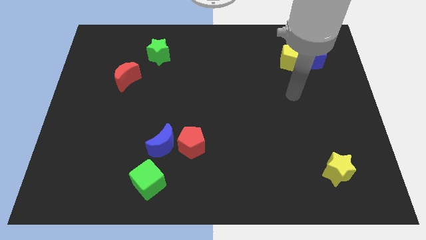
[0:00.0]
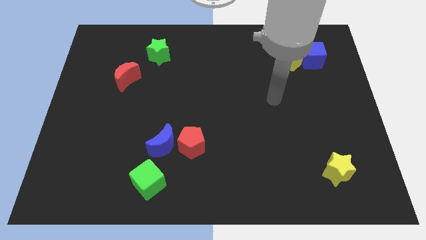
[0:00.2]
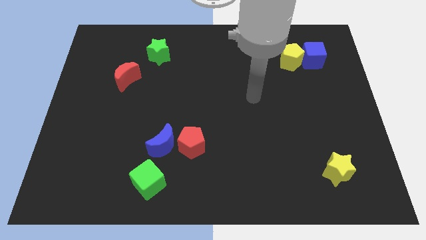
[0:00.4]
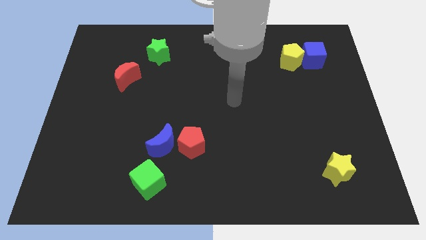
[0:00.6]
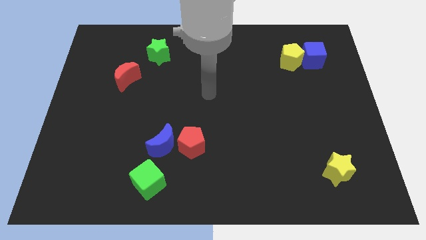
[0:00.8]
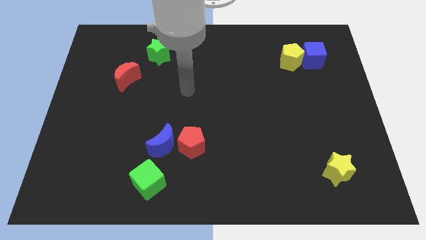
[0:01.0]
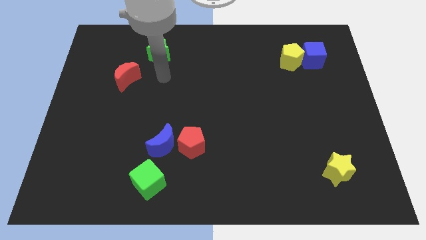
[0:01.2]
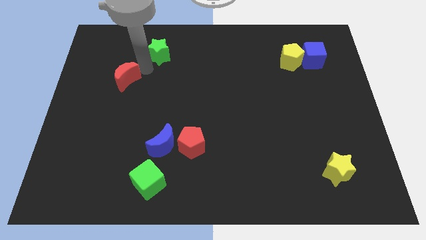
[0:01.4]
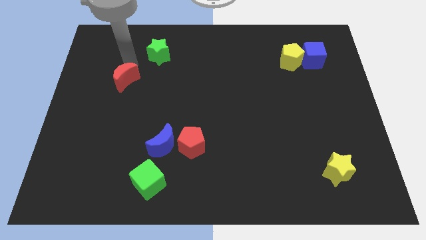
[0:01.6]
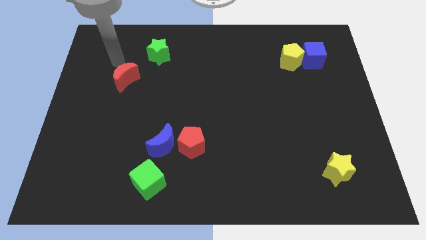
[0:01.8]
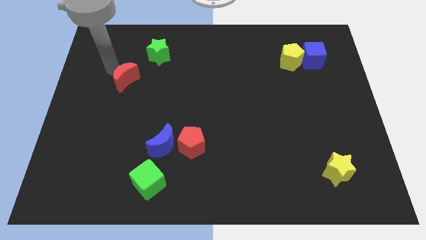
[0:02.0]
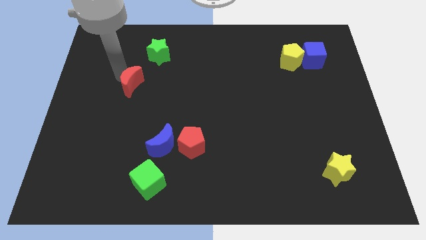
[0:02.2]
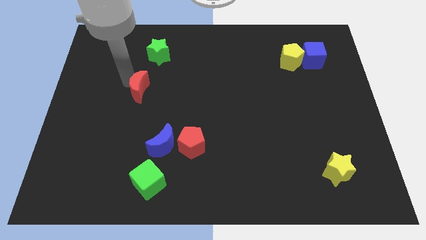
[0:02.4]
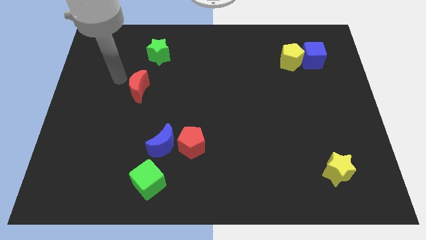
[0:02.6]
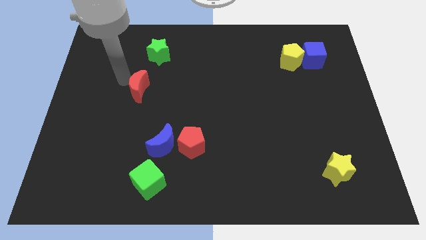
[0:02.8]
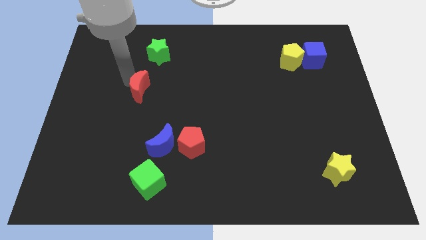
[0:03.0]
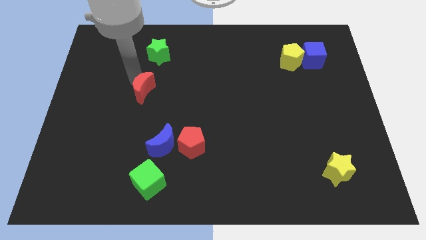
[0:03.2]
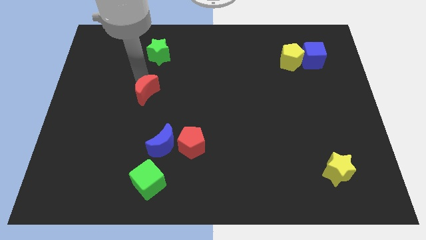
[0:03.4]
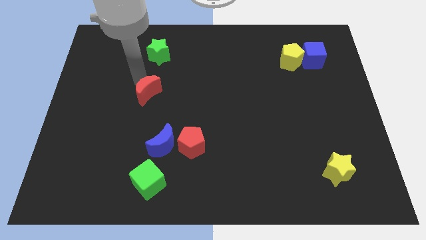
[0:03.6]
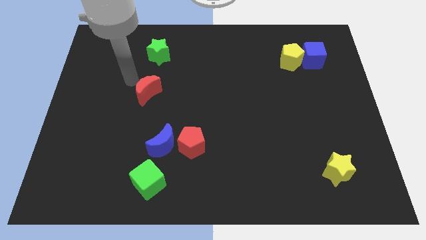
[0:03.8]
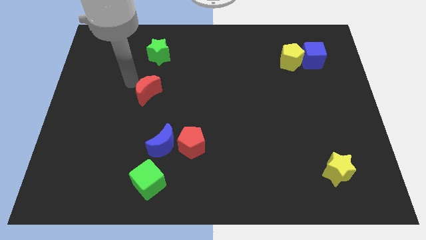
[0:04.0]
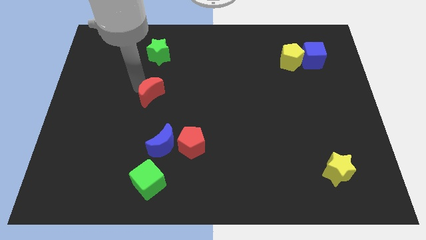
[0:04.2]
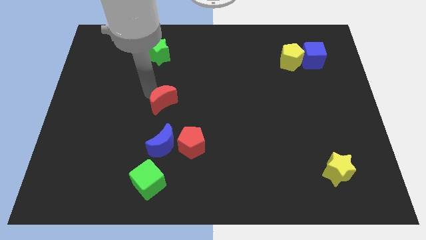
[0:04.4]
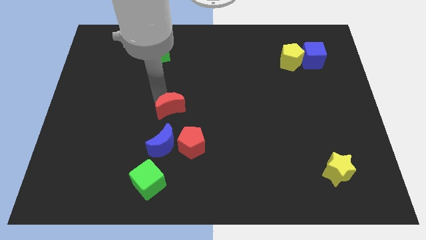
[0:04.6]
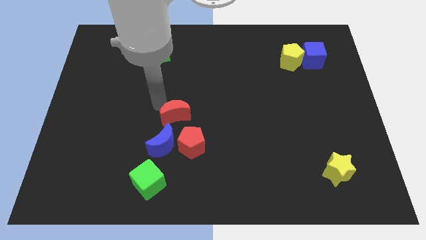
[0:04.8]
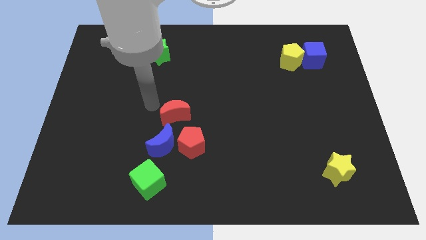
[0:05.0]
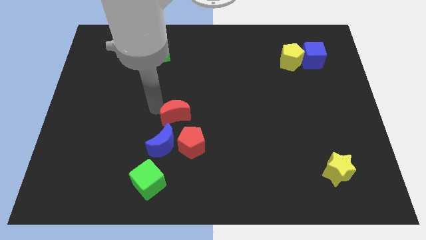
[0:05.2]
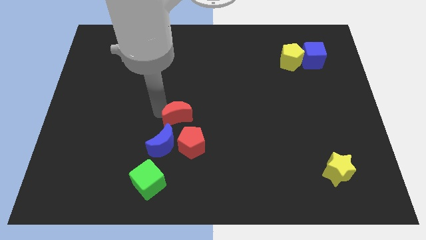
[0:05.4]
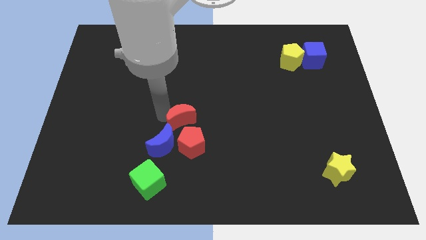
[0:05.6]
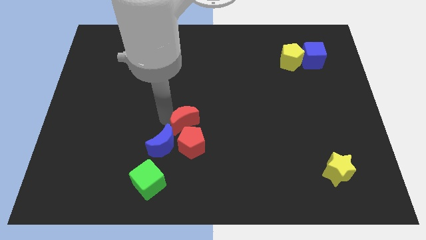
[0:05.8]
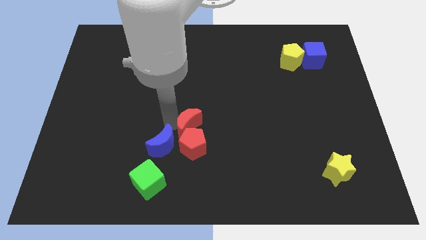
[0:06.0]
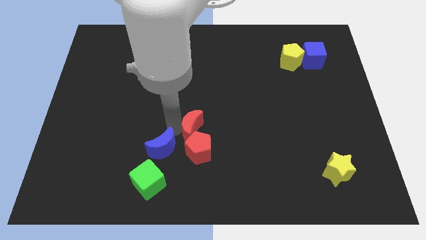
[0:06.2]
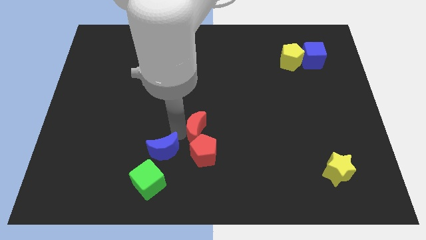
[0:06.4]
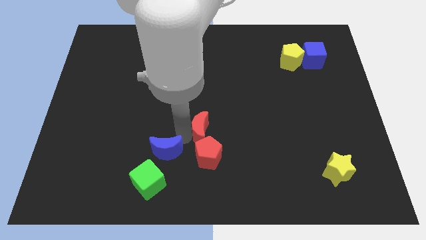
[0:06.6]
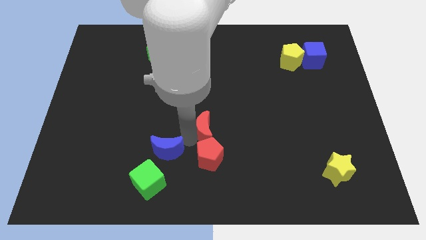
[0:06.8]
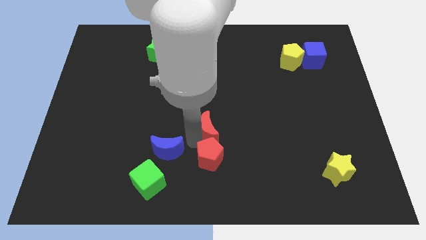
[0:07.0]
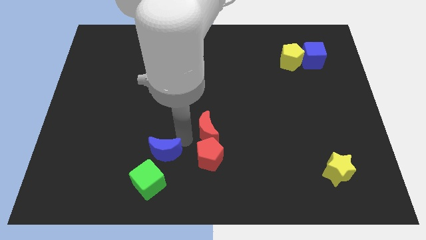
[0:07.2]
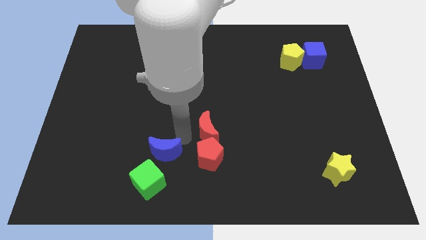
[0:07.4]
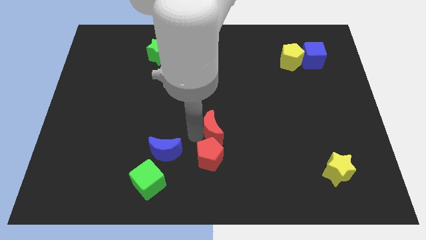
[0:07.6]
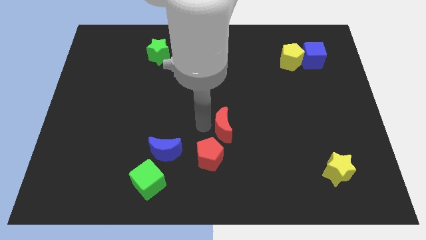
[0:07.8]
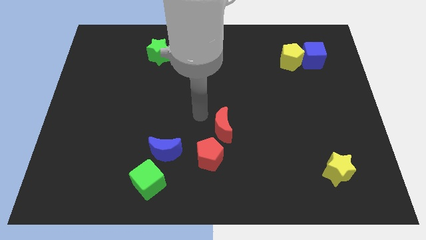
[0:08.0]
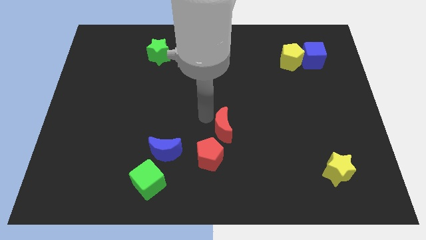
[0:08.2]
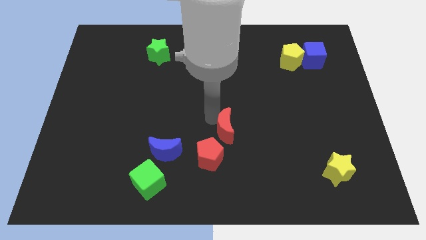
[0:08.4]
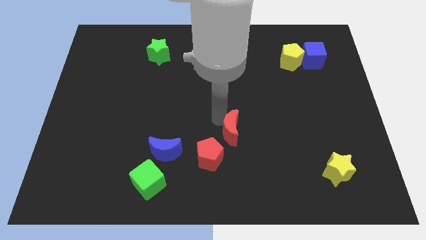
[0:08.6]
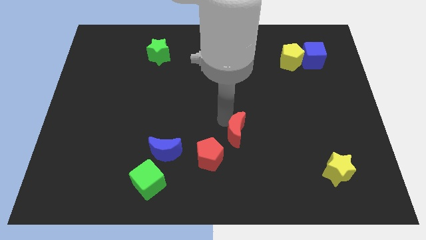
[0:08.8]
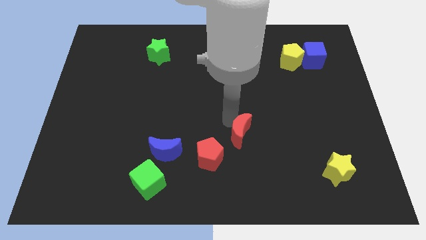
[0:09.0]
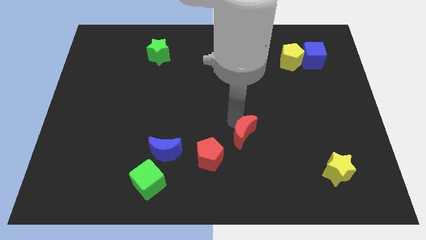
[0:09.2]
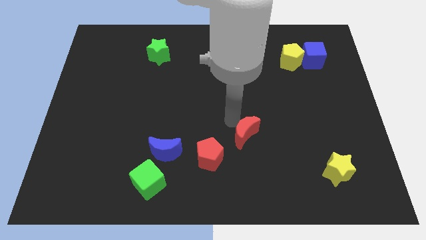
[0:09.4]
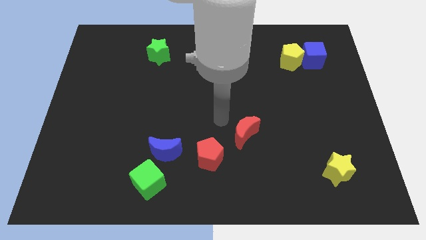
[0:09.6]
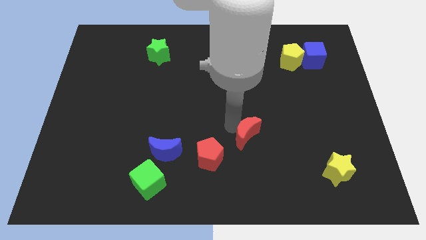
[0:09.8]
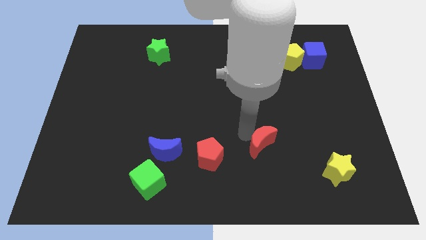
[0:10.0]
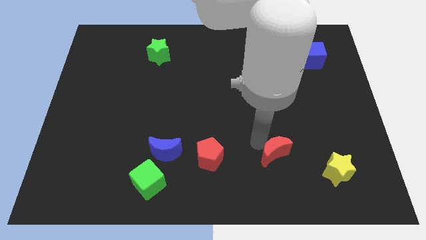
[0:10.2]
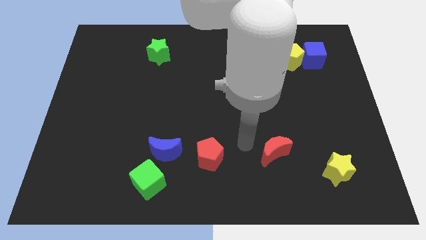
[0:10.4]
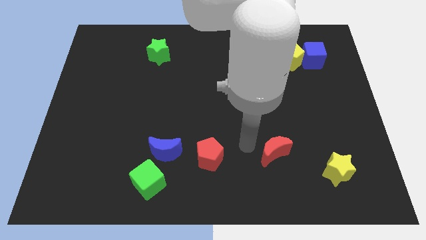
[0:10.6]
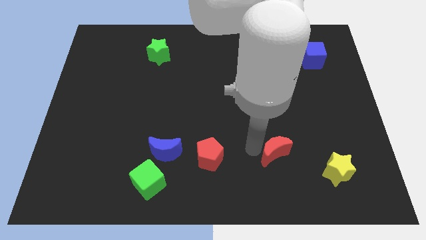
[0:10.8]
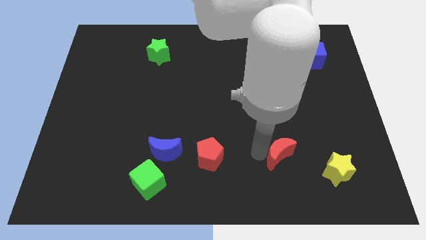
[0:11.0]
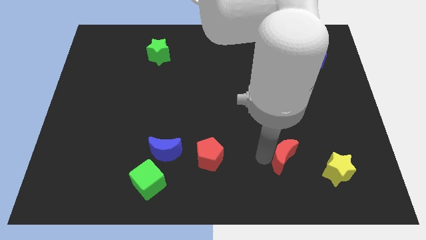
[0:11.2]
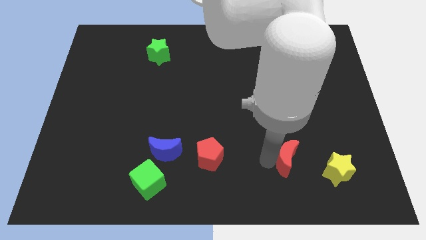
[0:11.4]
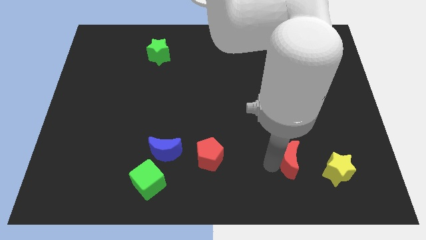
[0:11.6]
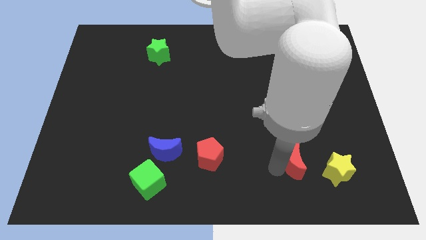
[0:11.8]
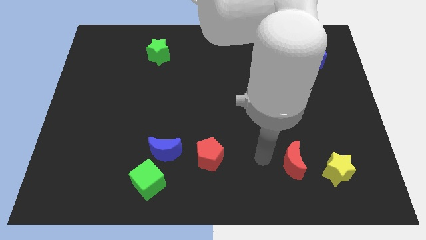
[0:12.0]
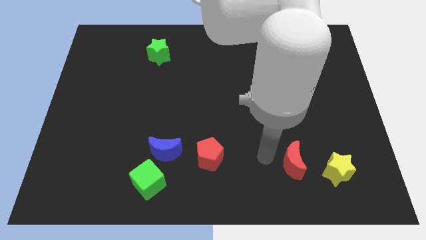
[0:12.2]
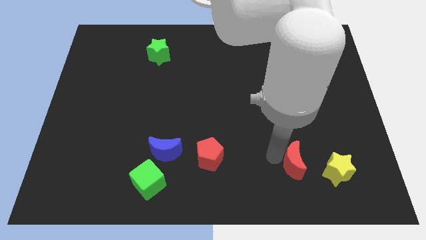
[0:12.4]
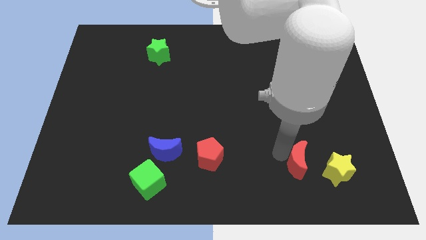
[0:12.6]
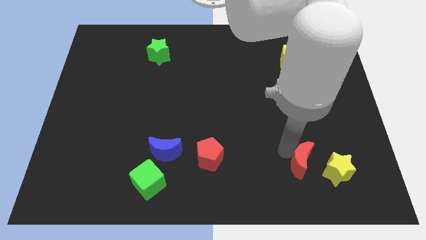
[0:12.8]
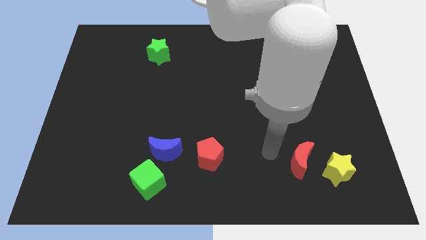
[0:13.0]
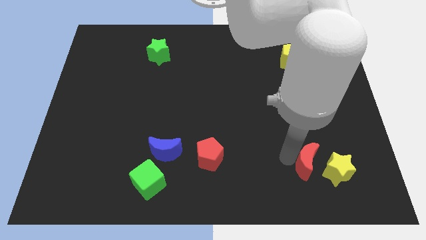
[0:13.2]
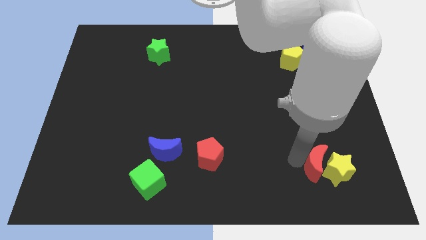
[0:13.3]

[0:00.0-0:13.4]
move the red moon close to the yellow star
